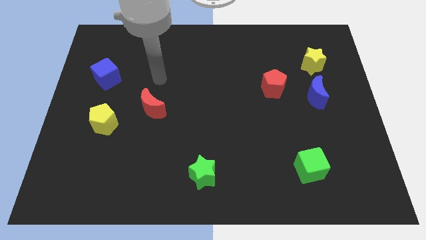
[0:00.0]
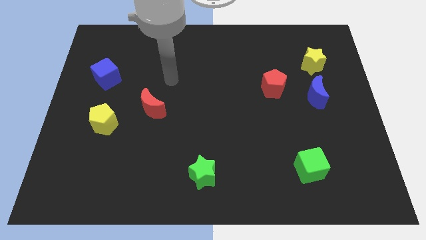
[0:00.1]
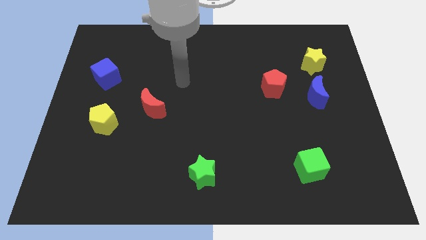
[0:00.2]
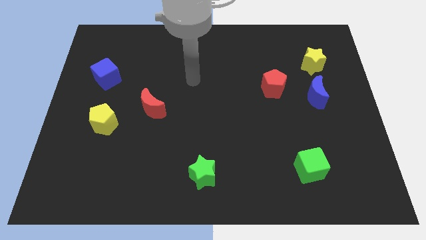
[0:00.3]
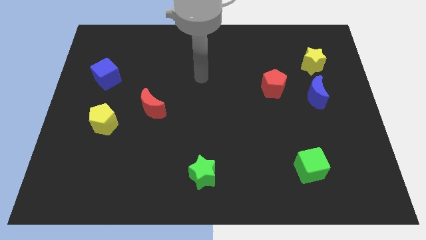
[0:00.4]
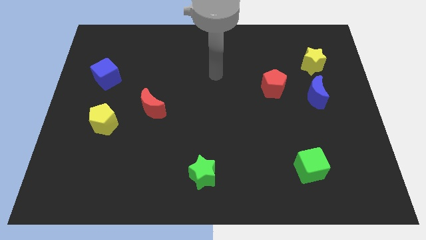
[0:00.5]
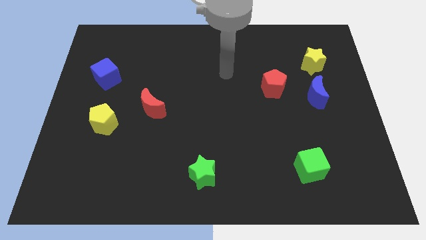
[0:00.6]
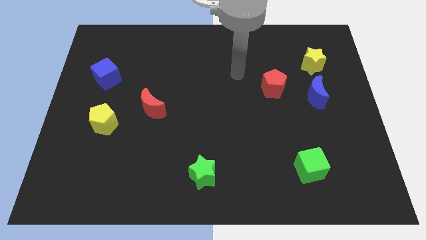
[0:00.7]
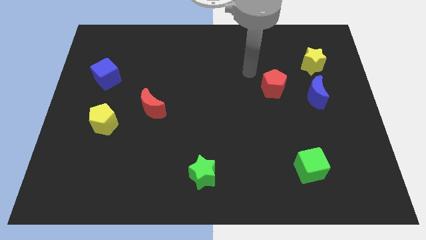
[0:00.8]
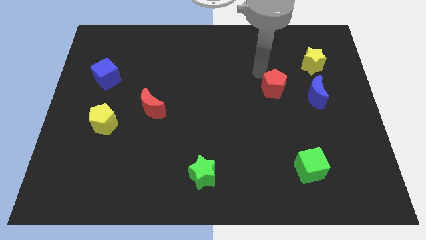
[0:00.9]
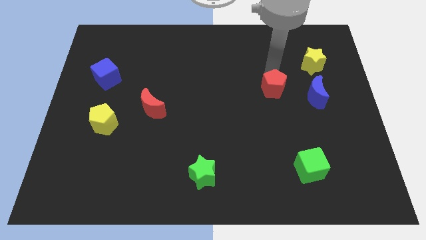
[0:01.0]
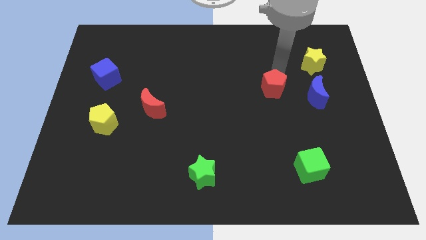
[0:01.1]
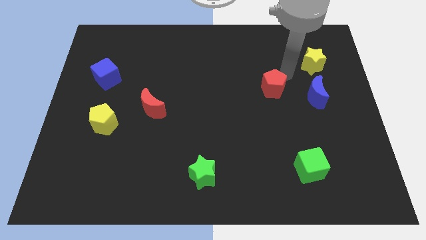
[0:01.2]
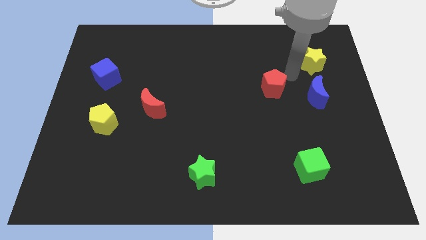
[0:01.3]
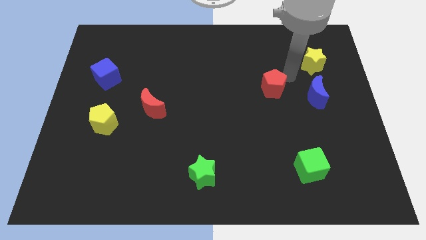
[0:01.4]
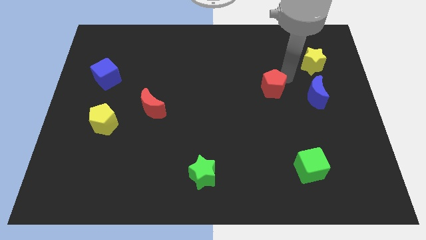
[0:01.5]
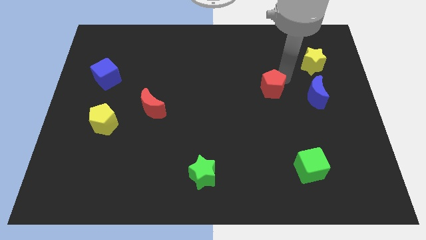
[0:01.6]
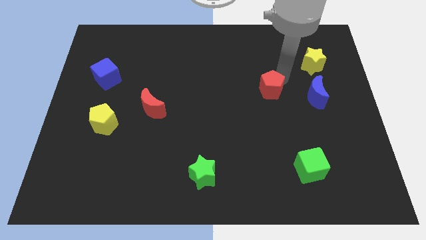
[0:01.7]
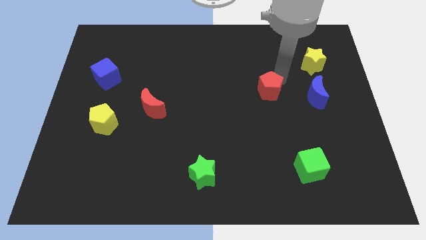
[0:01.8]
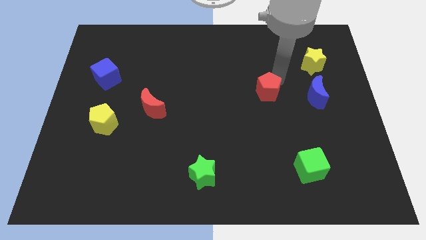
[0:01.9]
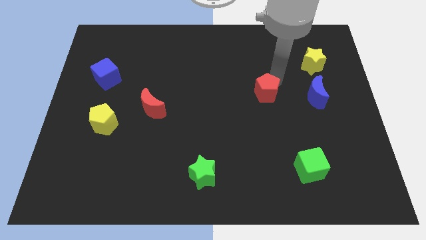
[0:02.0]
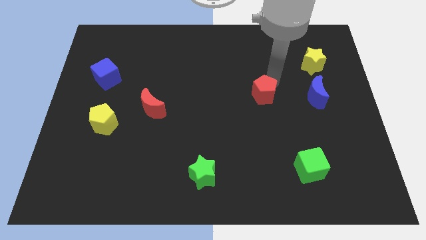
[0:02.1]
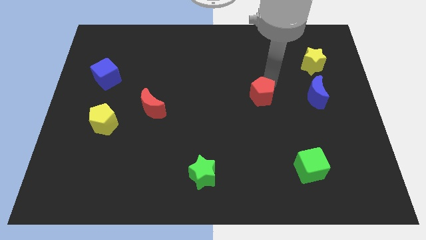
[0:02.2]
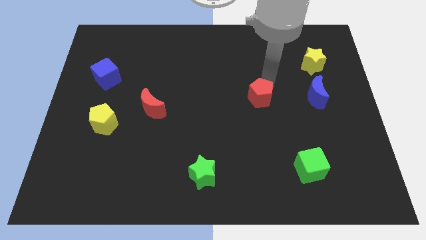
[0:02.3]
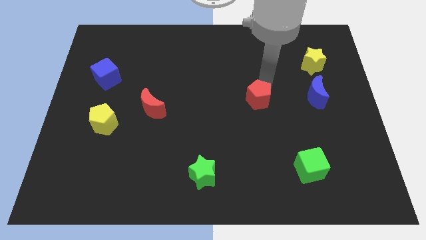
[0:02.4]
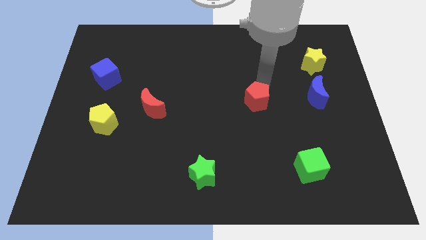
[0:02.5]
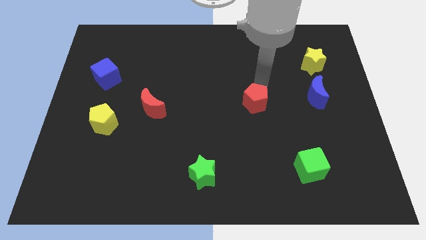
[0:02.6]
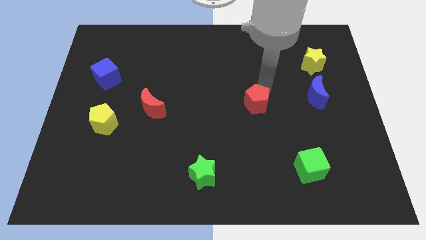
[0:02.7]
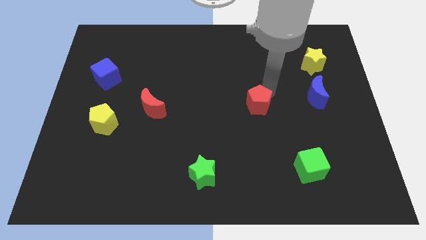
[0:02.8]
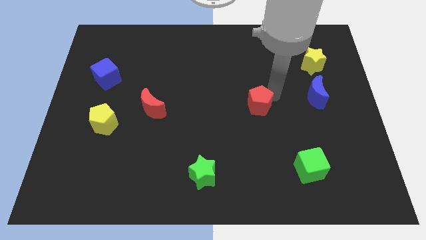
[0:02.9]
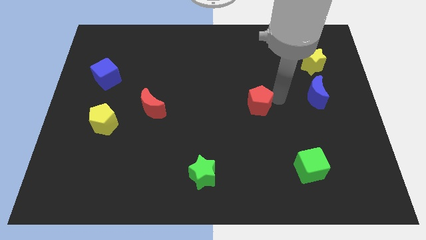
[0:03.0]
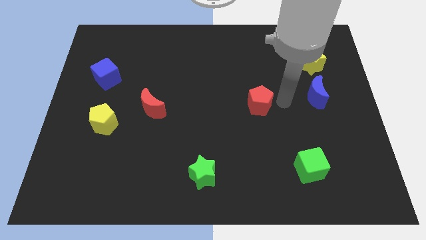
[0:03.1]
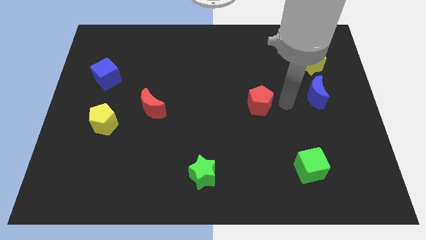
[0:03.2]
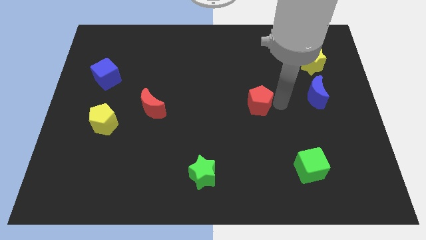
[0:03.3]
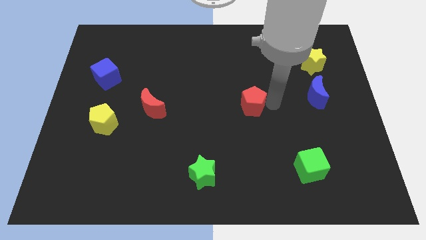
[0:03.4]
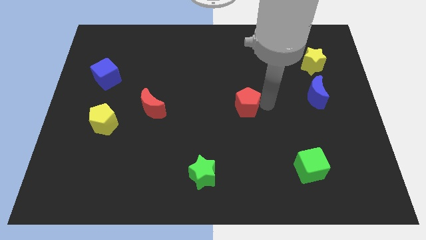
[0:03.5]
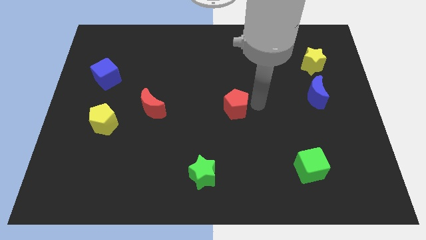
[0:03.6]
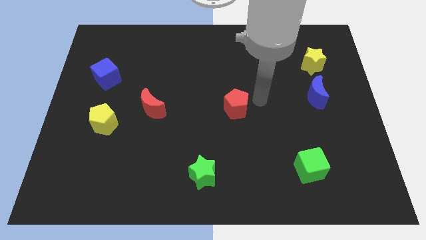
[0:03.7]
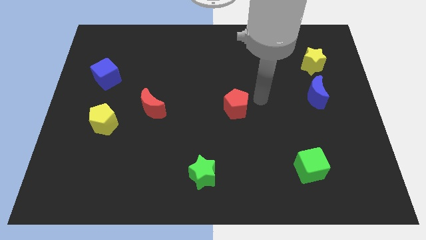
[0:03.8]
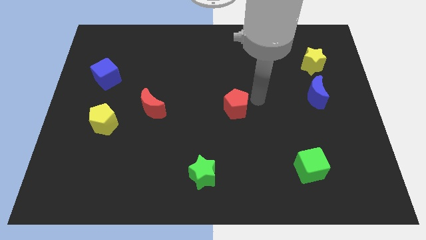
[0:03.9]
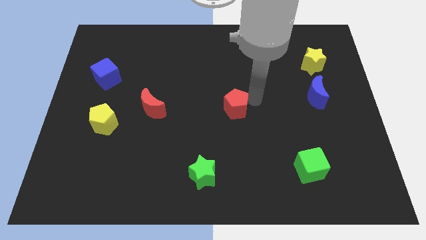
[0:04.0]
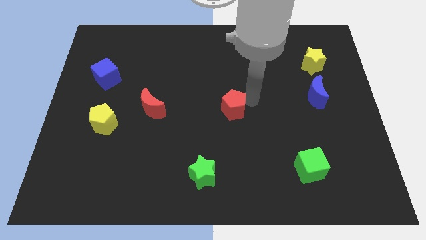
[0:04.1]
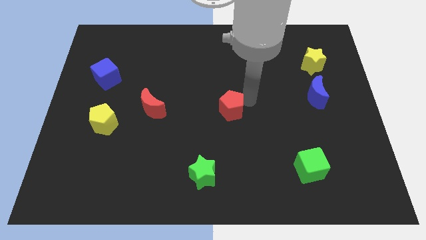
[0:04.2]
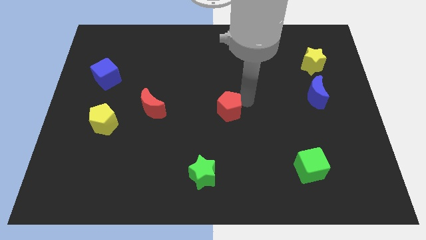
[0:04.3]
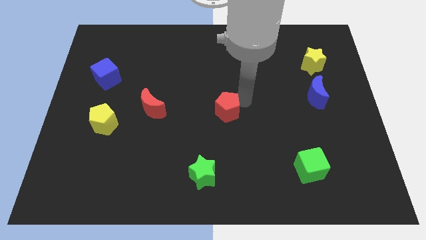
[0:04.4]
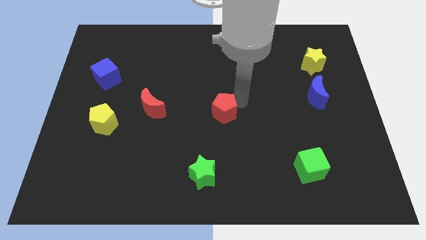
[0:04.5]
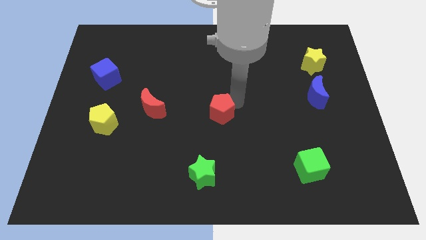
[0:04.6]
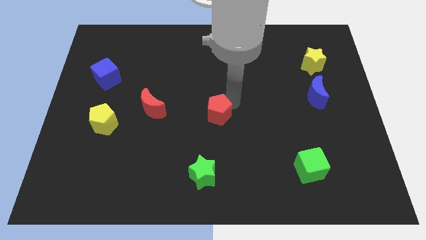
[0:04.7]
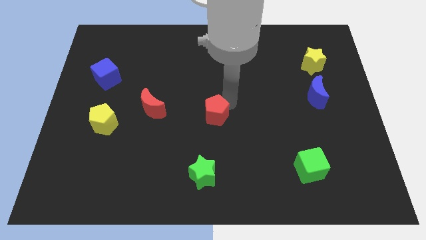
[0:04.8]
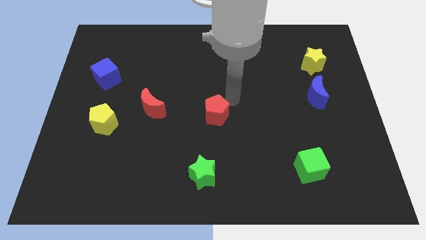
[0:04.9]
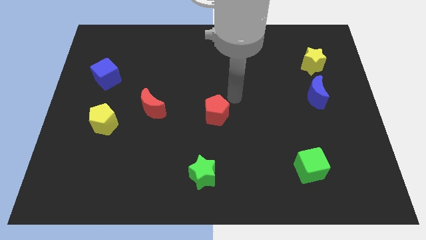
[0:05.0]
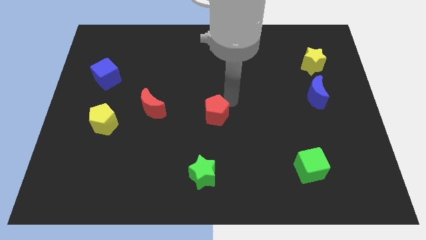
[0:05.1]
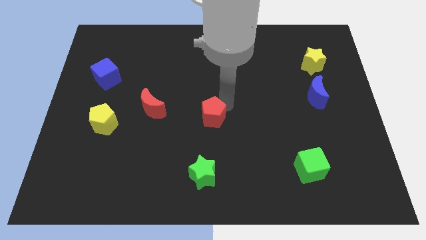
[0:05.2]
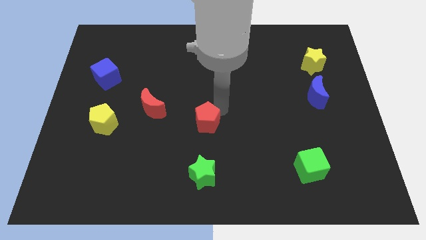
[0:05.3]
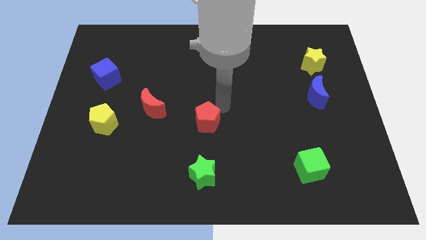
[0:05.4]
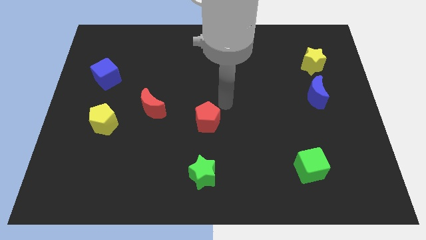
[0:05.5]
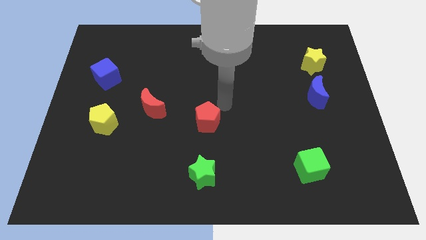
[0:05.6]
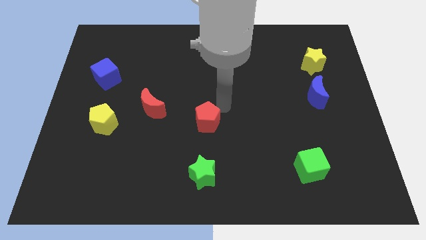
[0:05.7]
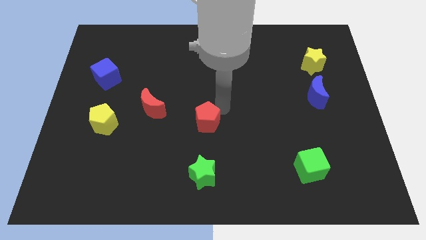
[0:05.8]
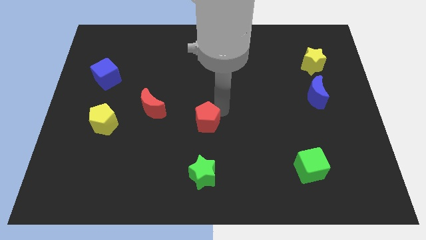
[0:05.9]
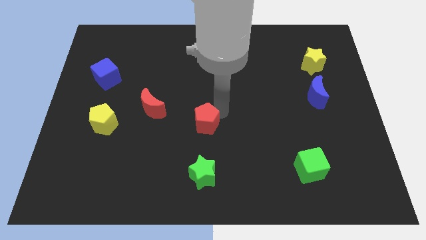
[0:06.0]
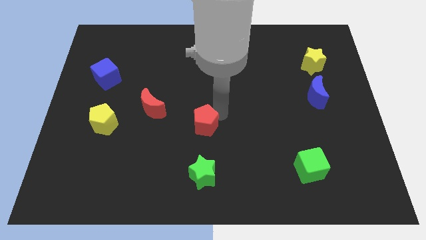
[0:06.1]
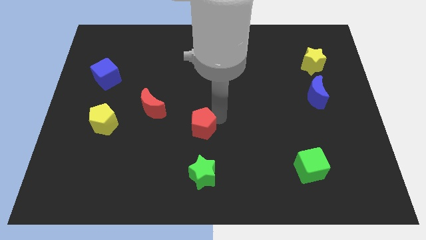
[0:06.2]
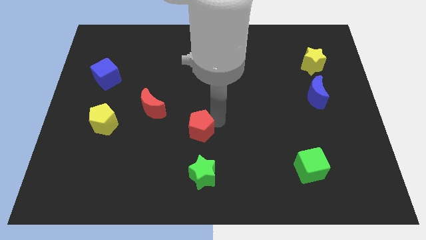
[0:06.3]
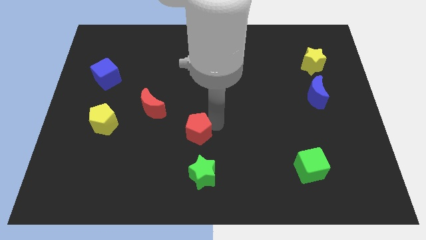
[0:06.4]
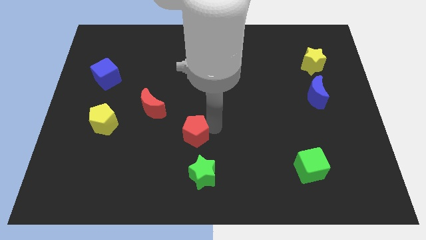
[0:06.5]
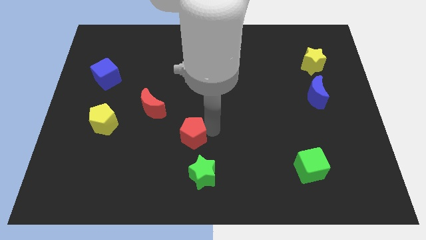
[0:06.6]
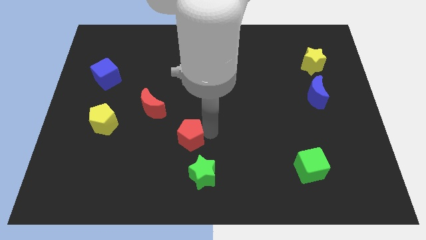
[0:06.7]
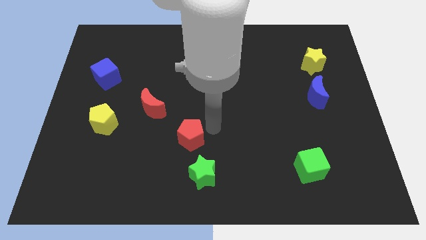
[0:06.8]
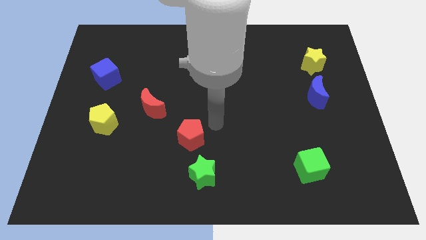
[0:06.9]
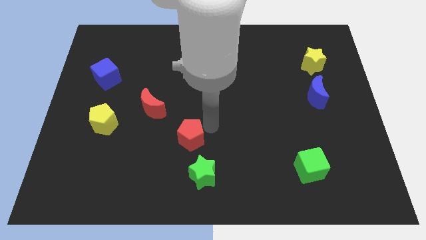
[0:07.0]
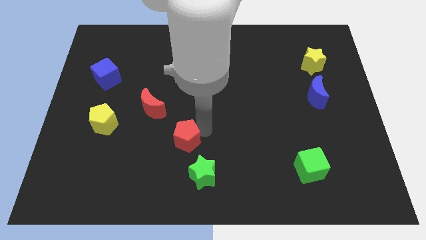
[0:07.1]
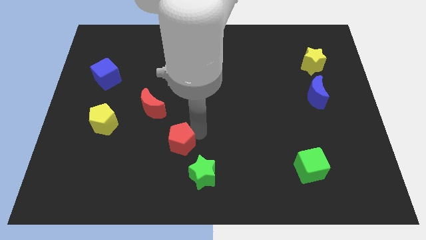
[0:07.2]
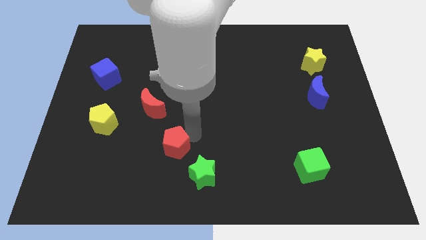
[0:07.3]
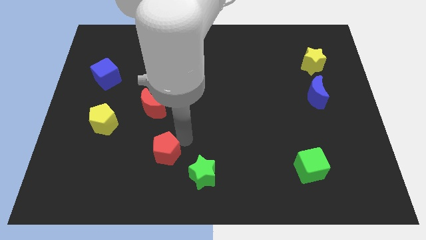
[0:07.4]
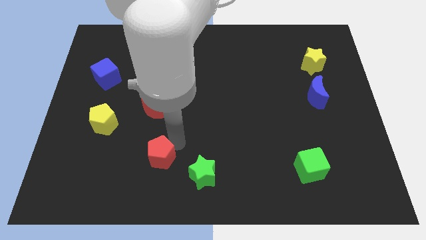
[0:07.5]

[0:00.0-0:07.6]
move the red pentagon just left of the green star
